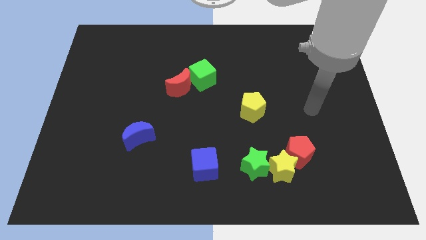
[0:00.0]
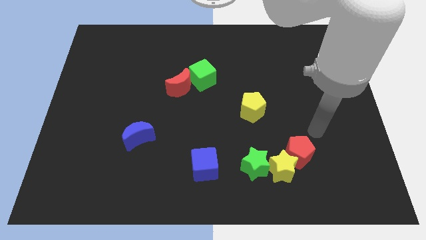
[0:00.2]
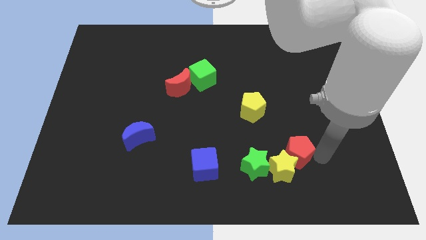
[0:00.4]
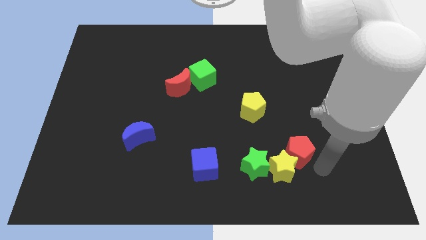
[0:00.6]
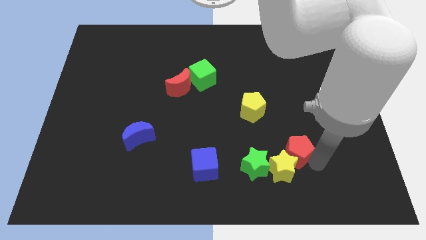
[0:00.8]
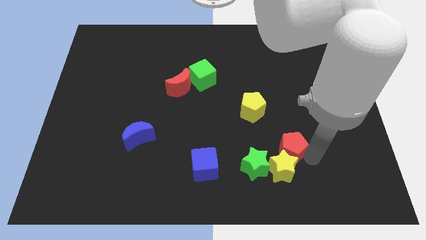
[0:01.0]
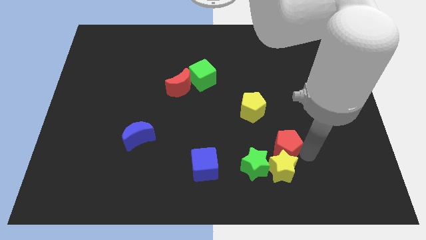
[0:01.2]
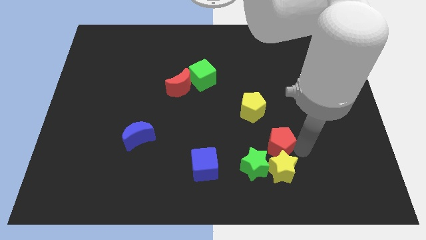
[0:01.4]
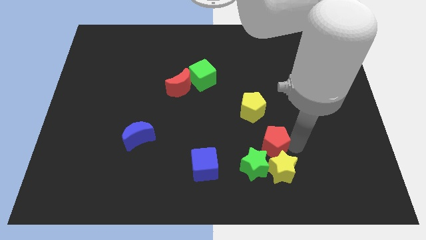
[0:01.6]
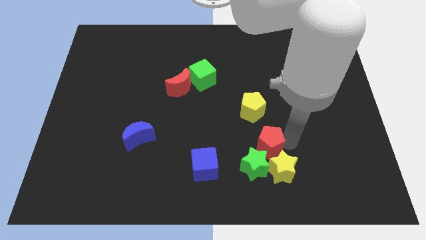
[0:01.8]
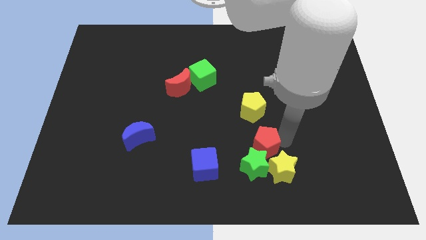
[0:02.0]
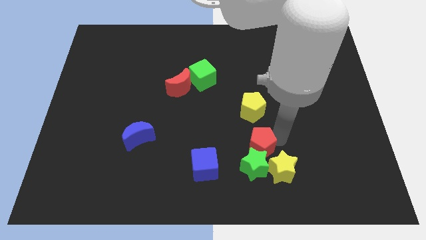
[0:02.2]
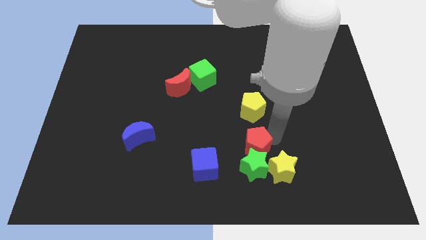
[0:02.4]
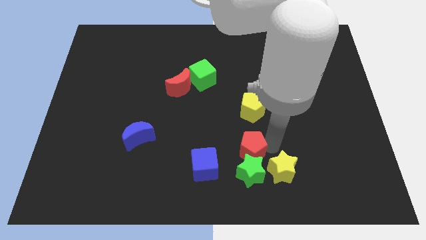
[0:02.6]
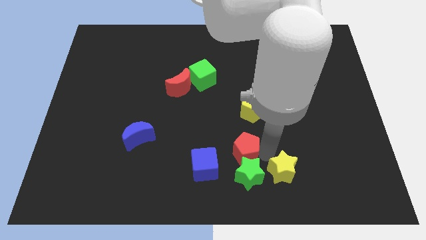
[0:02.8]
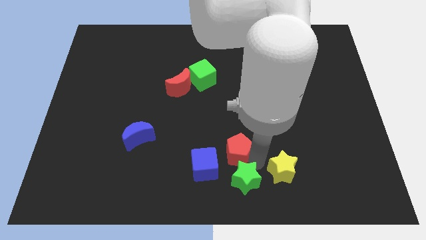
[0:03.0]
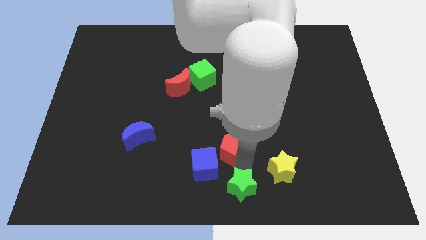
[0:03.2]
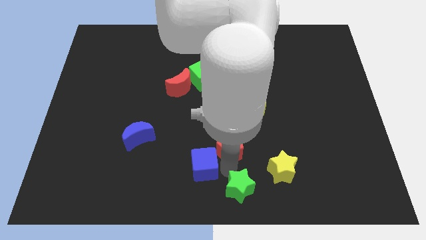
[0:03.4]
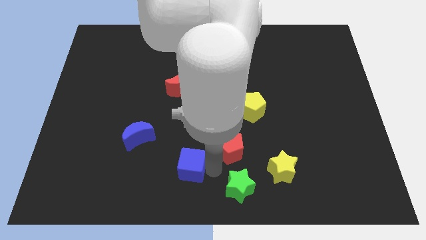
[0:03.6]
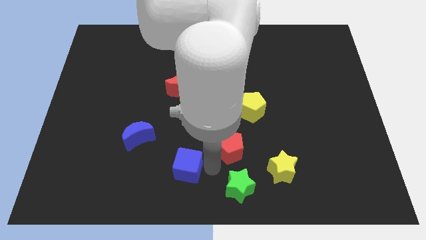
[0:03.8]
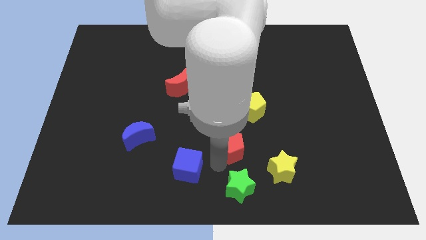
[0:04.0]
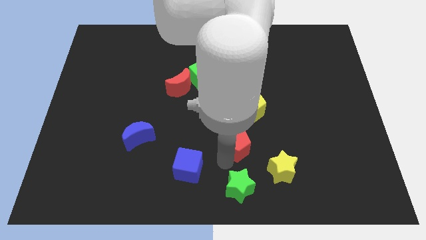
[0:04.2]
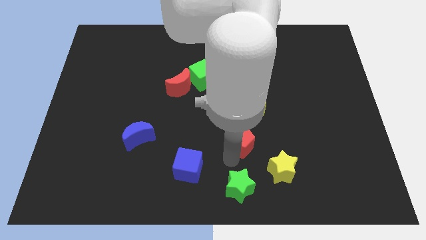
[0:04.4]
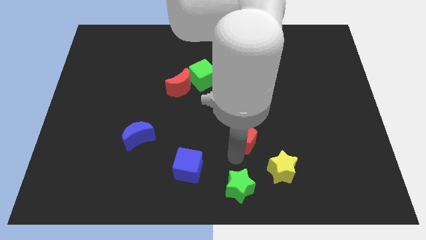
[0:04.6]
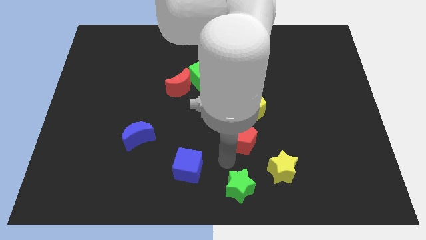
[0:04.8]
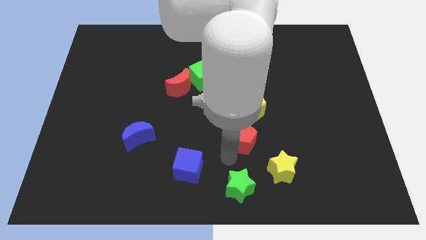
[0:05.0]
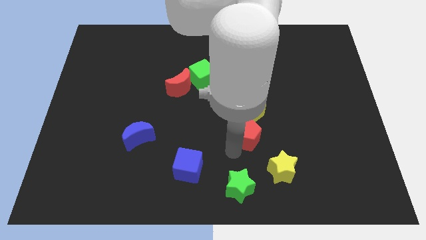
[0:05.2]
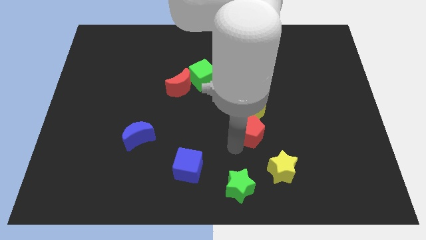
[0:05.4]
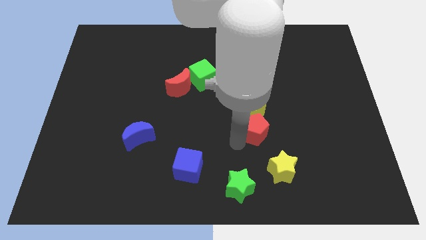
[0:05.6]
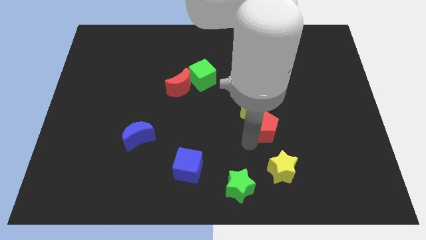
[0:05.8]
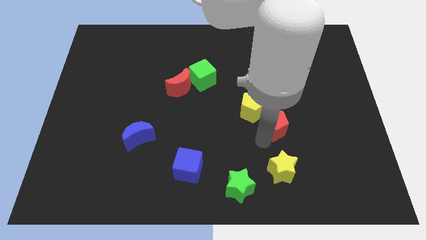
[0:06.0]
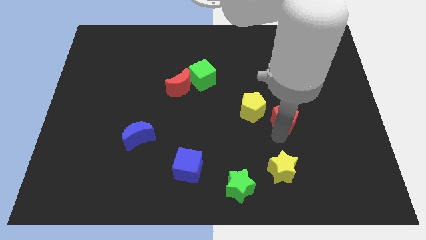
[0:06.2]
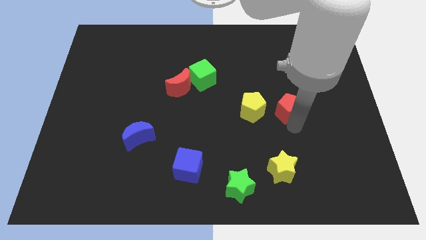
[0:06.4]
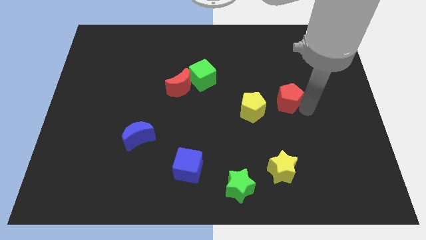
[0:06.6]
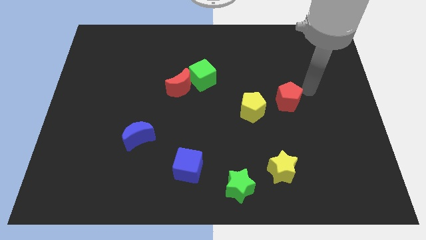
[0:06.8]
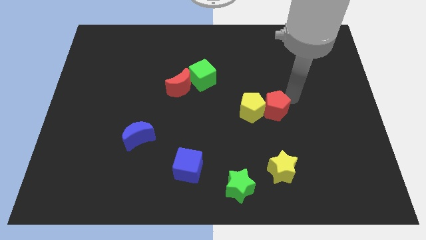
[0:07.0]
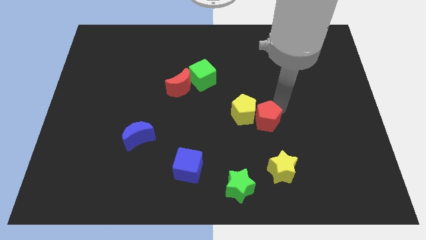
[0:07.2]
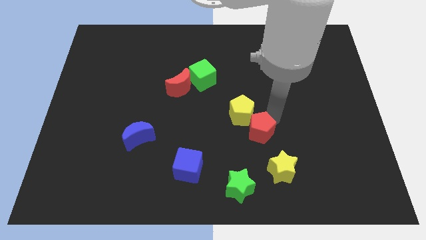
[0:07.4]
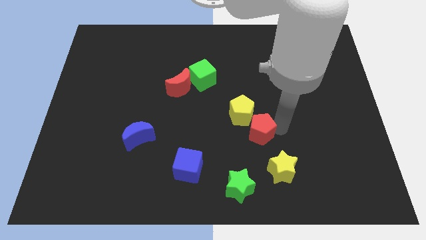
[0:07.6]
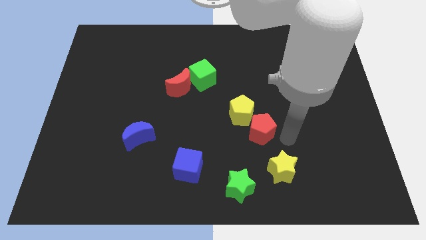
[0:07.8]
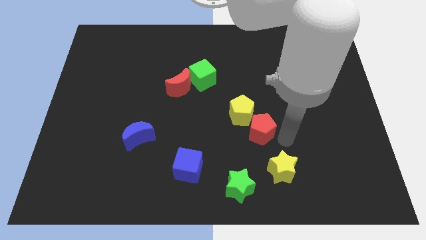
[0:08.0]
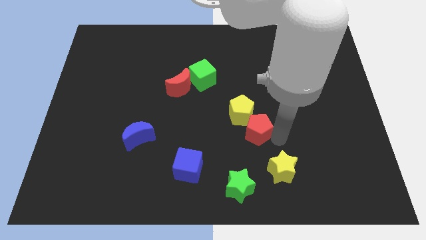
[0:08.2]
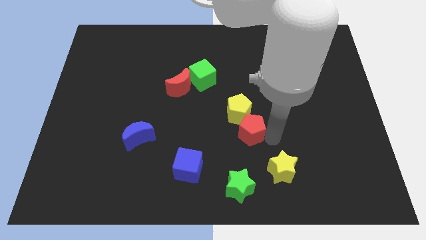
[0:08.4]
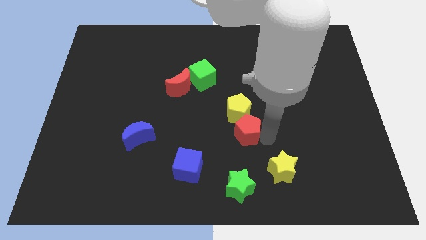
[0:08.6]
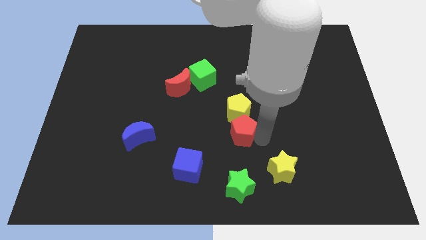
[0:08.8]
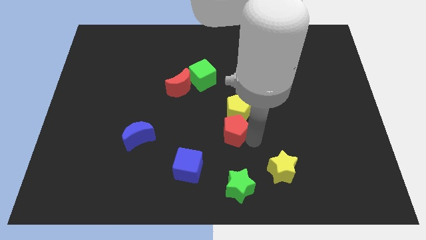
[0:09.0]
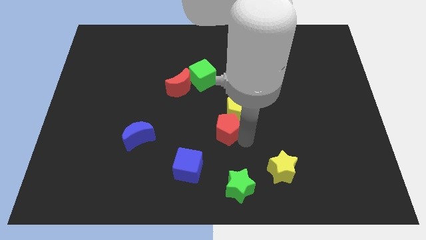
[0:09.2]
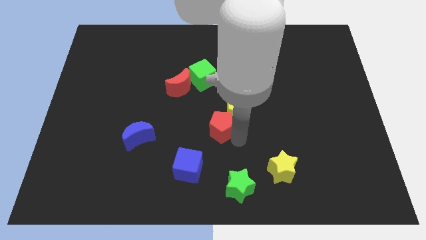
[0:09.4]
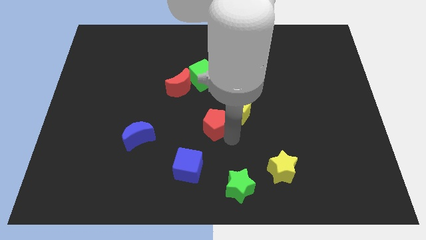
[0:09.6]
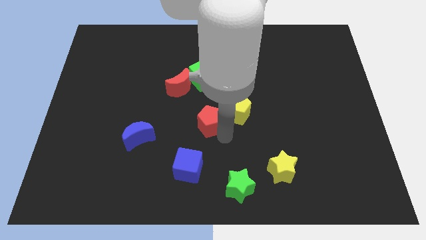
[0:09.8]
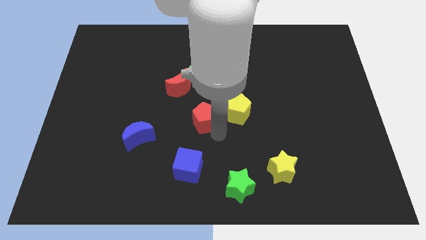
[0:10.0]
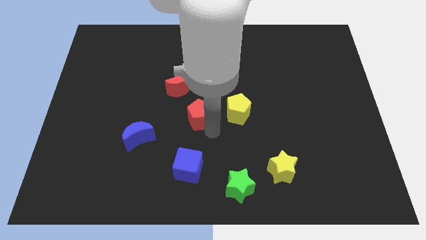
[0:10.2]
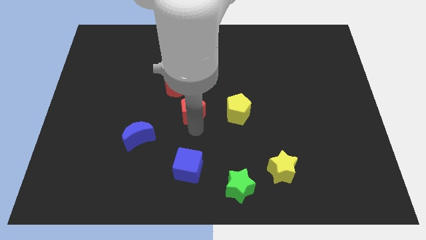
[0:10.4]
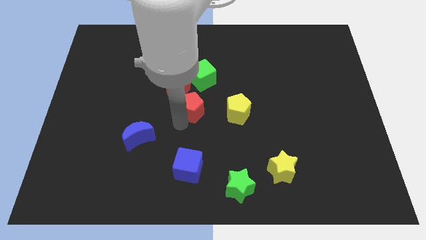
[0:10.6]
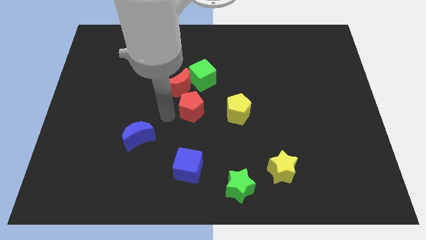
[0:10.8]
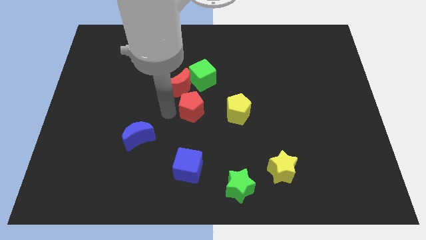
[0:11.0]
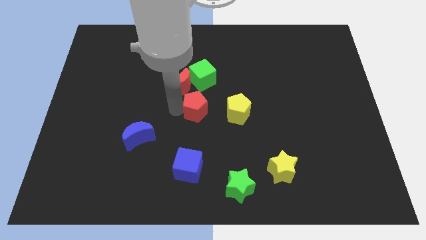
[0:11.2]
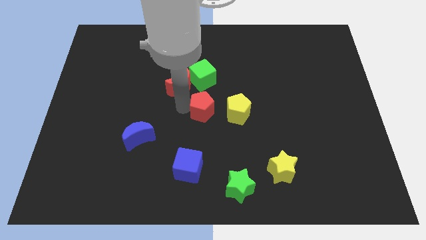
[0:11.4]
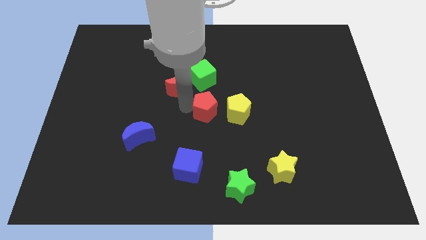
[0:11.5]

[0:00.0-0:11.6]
move the red pentagon diagonally up and to the left of the yellow pentagon

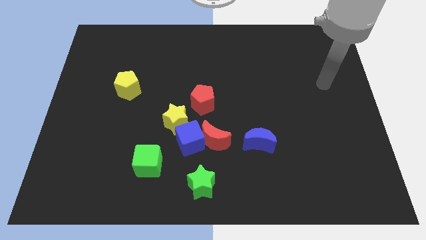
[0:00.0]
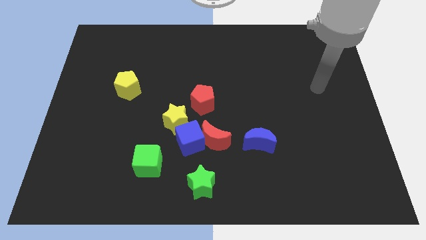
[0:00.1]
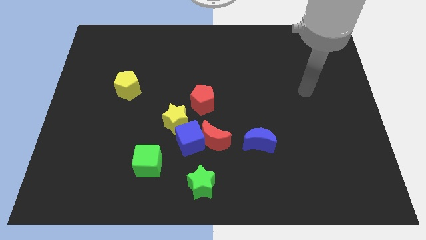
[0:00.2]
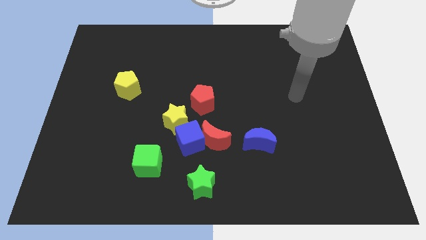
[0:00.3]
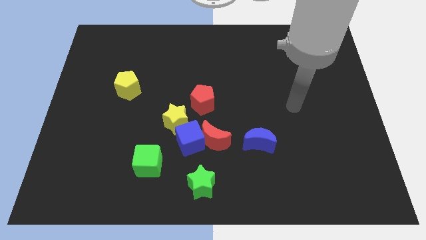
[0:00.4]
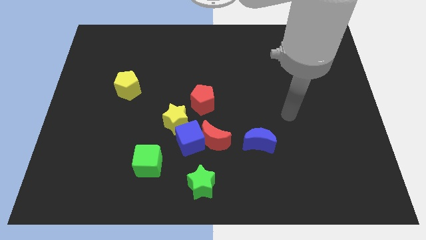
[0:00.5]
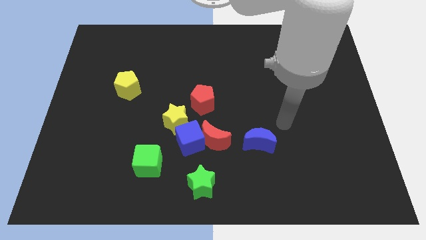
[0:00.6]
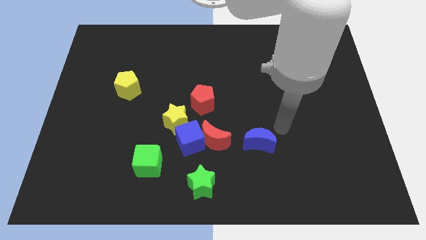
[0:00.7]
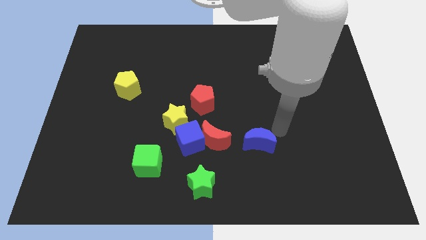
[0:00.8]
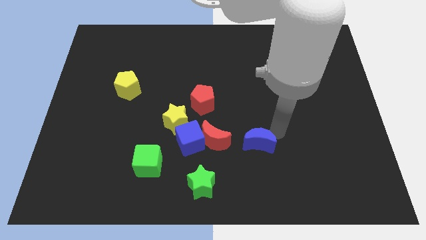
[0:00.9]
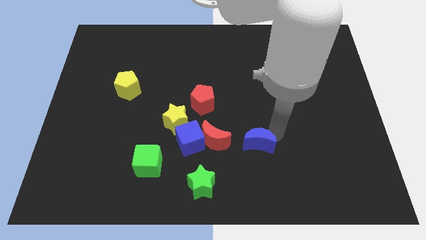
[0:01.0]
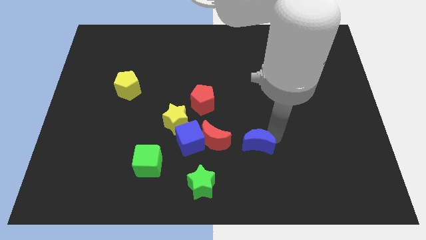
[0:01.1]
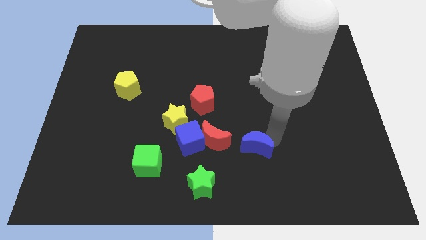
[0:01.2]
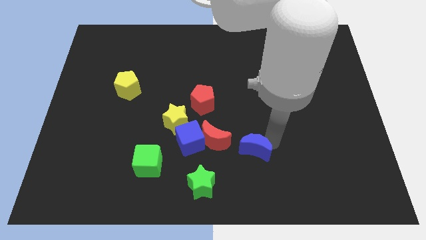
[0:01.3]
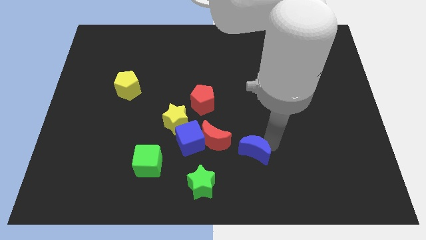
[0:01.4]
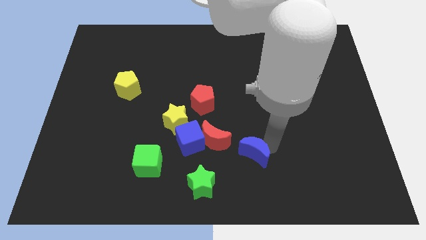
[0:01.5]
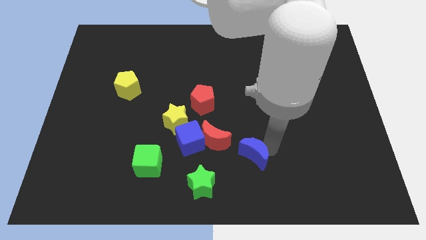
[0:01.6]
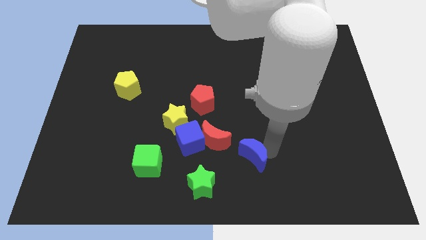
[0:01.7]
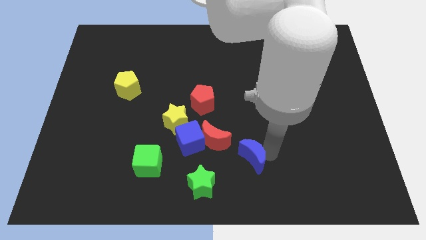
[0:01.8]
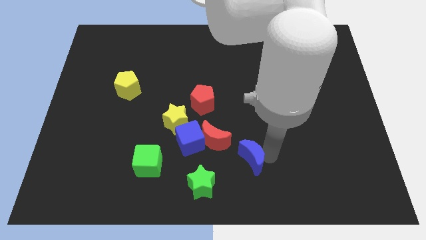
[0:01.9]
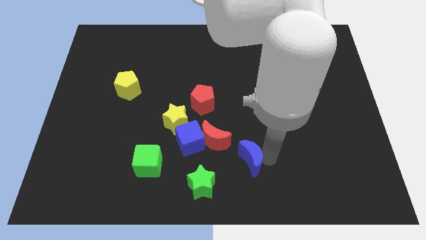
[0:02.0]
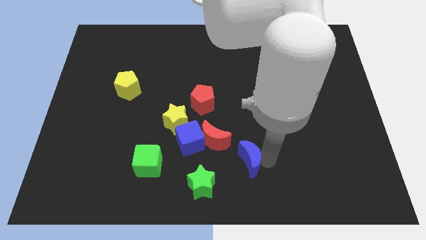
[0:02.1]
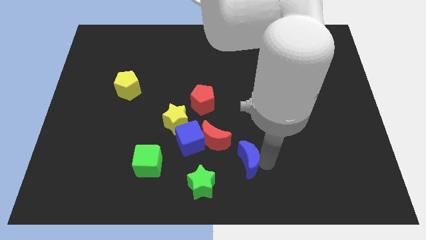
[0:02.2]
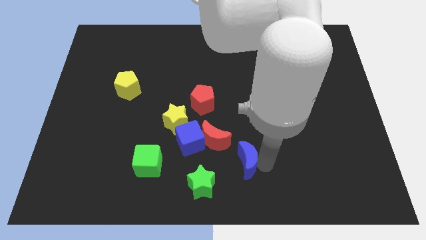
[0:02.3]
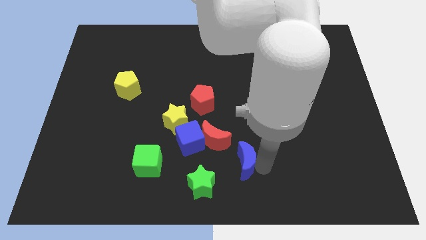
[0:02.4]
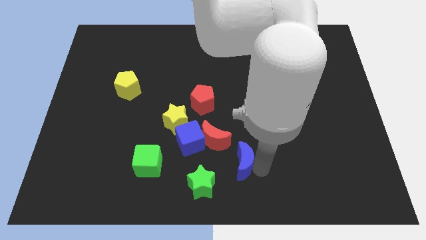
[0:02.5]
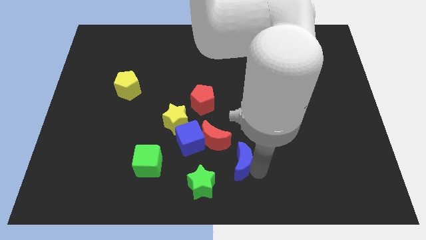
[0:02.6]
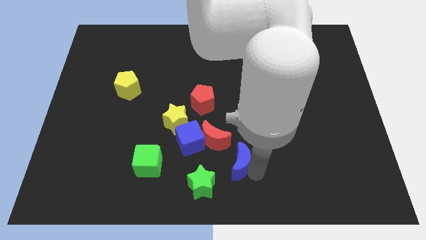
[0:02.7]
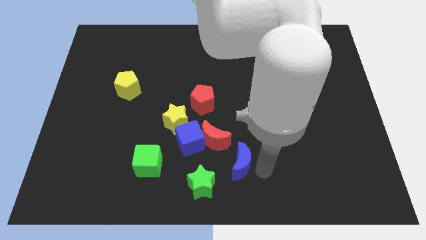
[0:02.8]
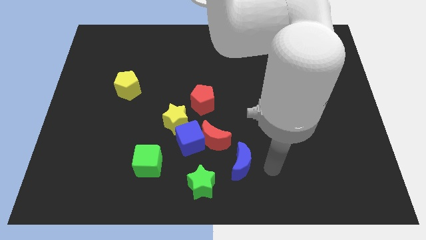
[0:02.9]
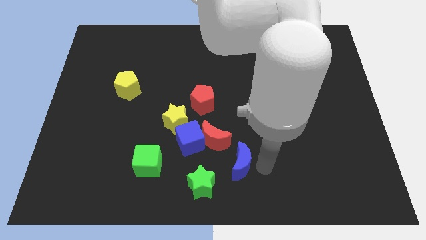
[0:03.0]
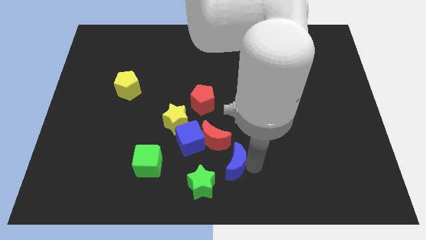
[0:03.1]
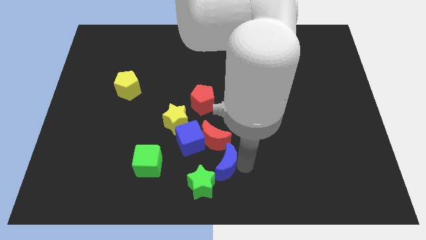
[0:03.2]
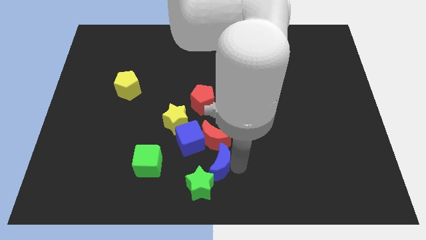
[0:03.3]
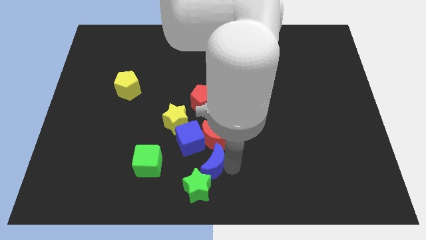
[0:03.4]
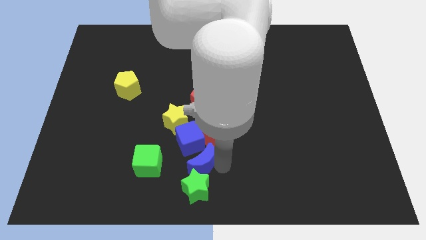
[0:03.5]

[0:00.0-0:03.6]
push the blue moon diagonally up and to the left of the green star
